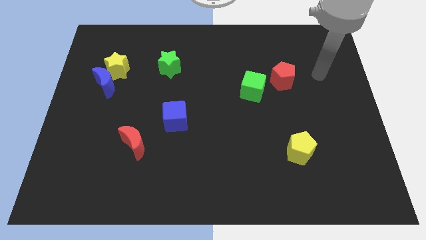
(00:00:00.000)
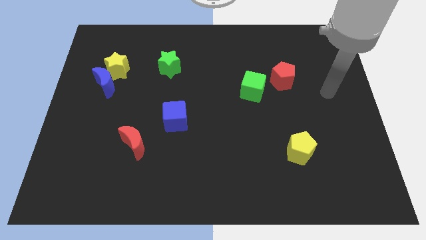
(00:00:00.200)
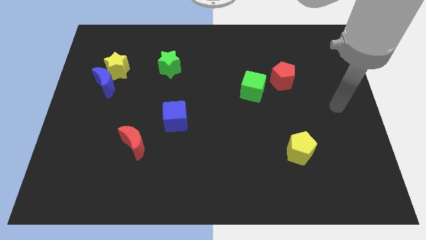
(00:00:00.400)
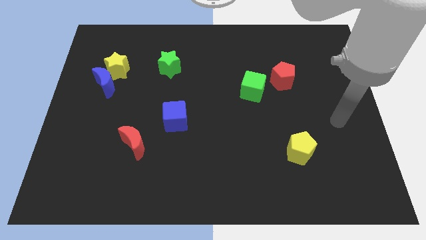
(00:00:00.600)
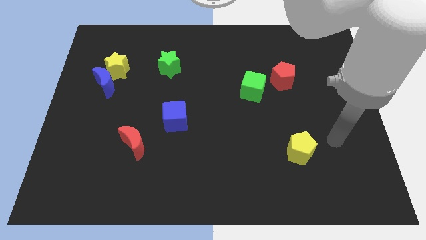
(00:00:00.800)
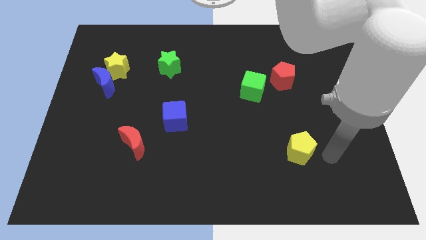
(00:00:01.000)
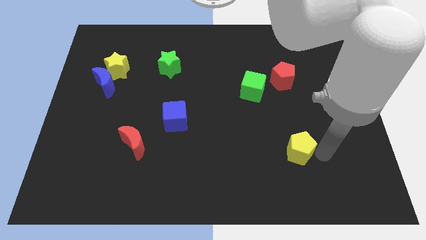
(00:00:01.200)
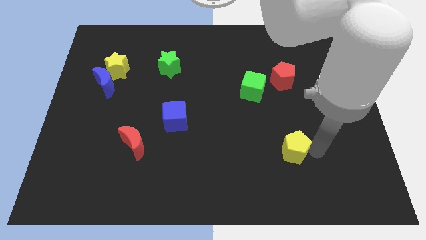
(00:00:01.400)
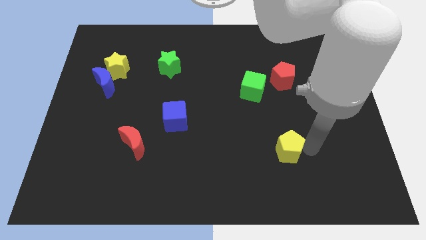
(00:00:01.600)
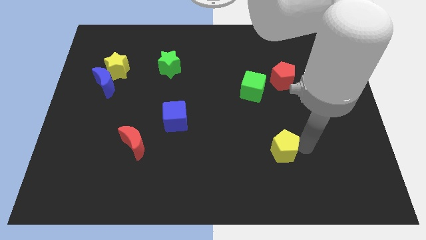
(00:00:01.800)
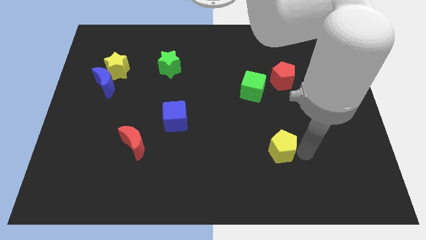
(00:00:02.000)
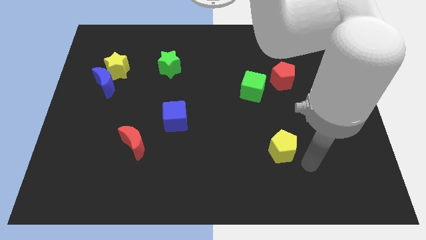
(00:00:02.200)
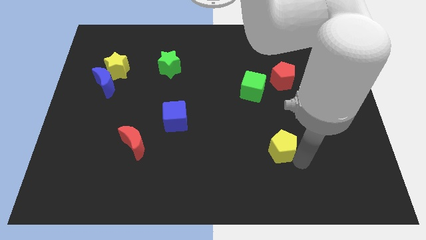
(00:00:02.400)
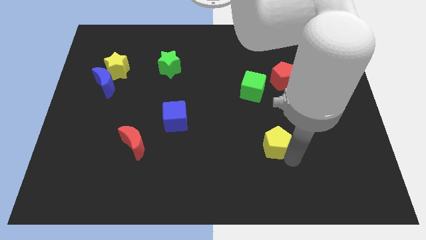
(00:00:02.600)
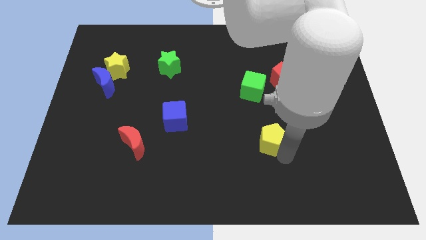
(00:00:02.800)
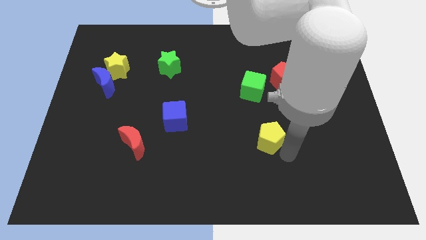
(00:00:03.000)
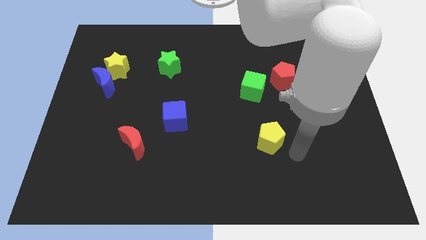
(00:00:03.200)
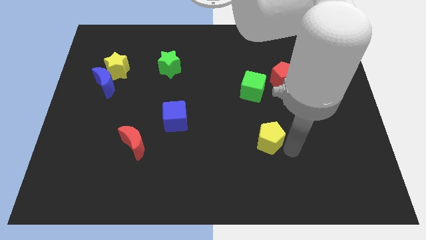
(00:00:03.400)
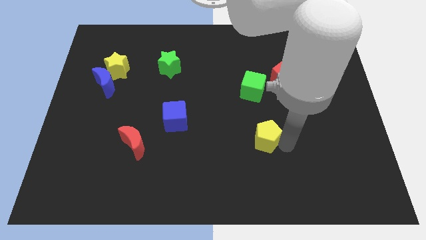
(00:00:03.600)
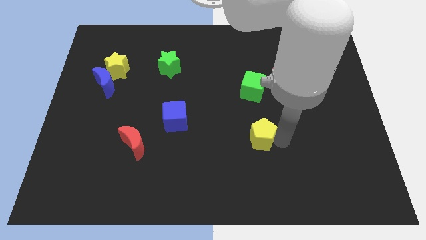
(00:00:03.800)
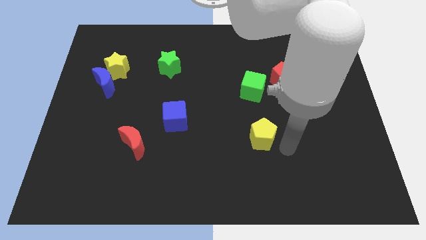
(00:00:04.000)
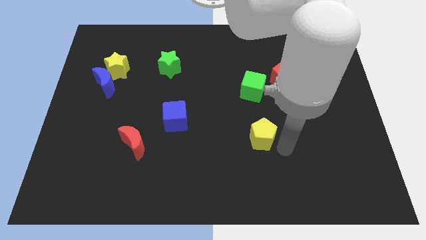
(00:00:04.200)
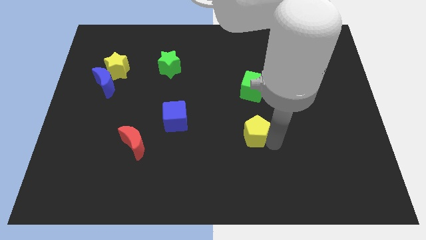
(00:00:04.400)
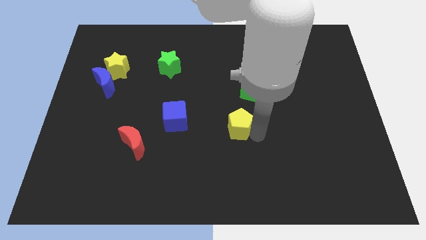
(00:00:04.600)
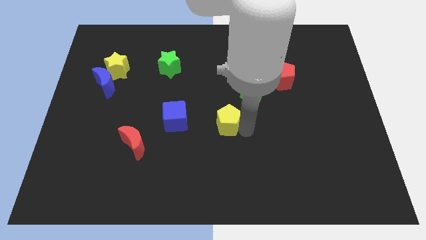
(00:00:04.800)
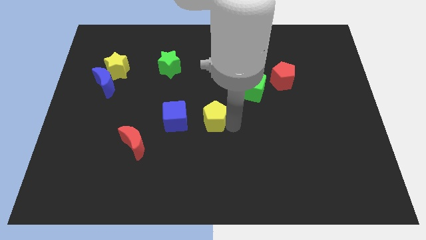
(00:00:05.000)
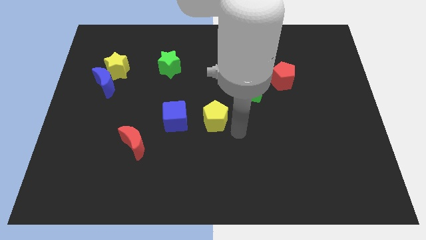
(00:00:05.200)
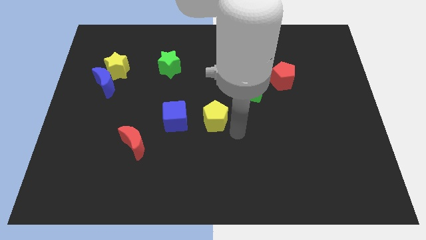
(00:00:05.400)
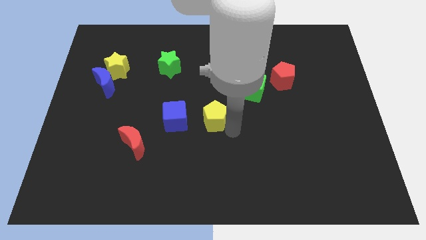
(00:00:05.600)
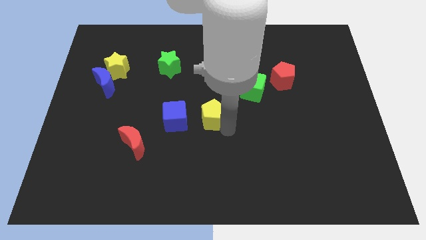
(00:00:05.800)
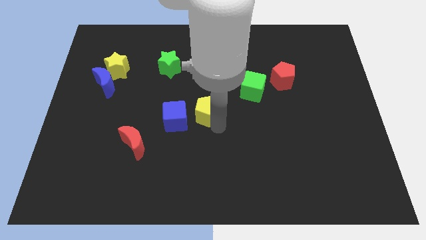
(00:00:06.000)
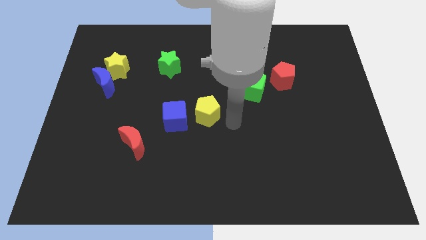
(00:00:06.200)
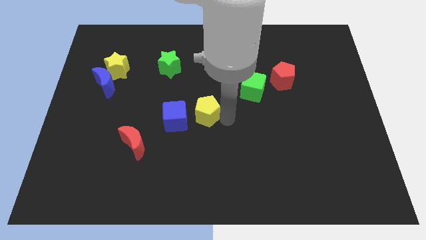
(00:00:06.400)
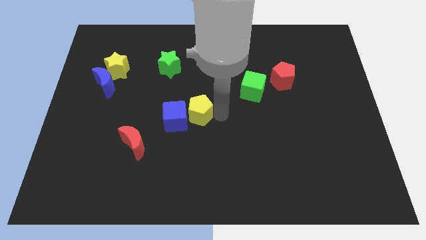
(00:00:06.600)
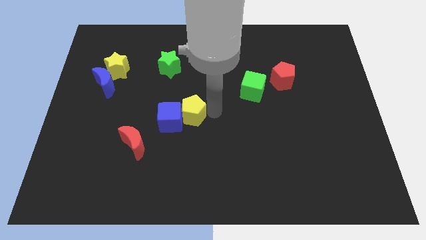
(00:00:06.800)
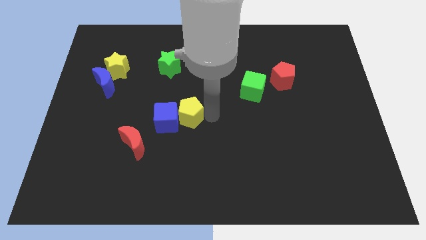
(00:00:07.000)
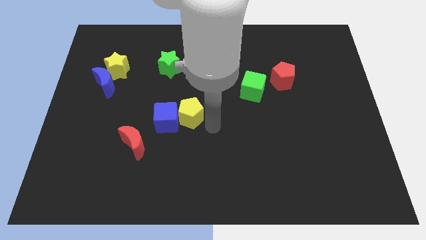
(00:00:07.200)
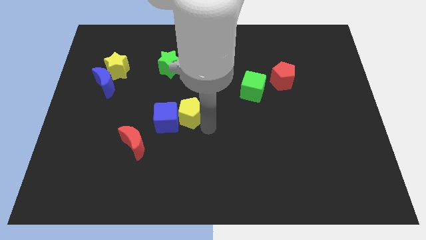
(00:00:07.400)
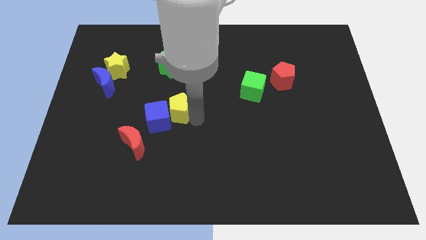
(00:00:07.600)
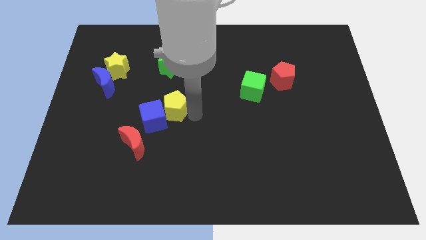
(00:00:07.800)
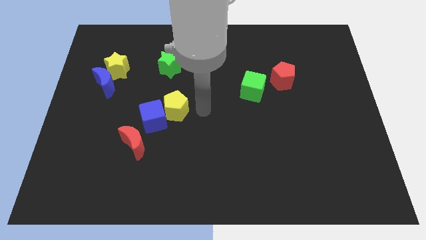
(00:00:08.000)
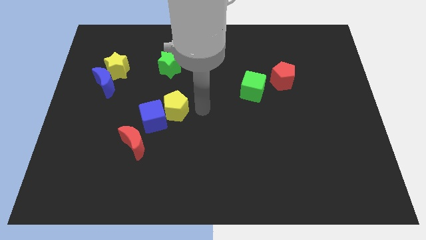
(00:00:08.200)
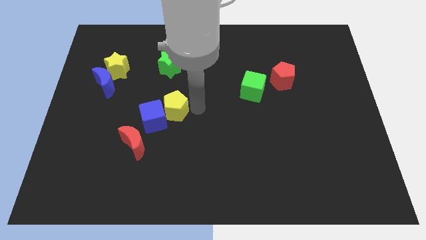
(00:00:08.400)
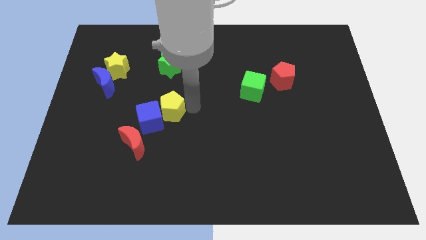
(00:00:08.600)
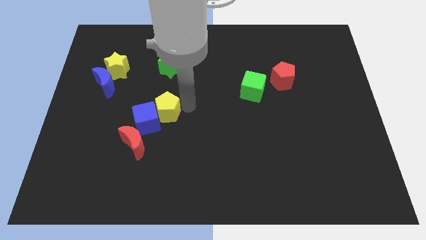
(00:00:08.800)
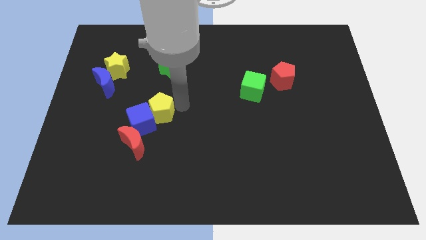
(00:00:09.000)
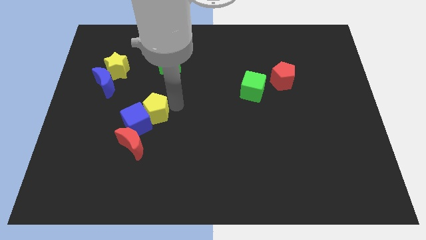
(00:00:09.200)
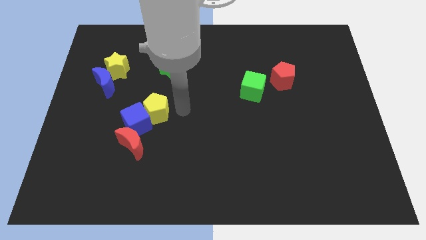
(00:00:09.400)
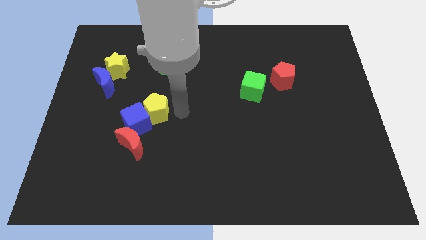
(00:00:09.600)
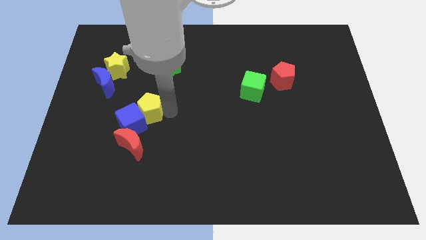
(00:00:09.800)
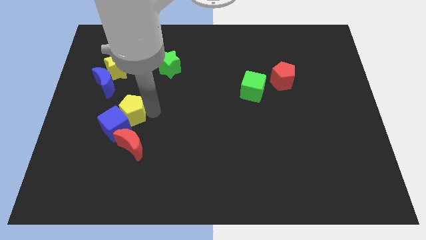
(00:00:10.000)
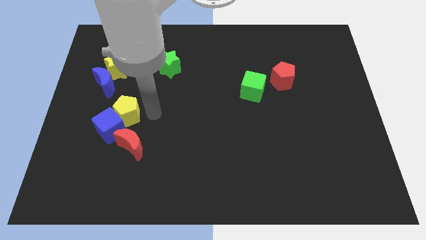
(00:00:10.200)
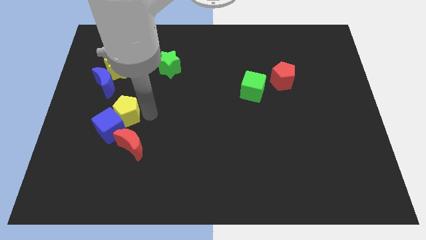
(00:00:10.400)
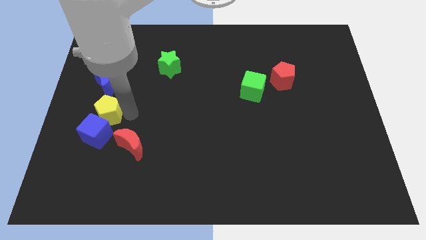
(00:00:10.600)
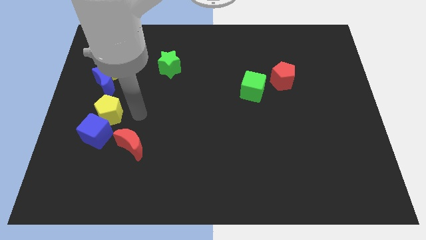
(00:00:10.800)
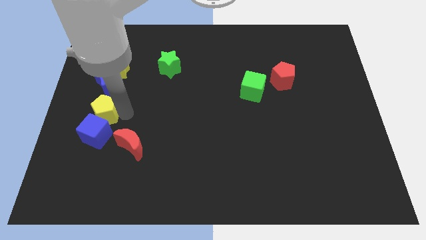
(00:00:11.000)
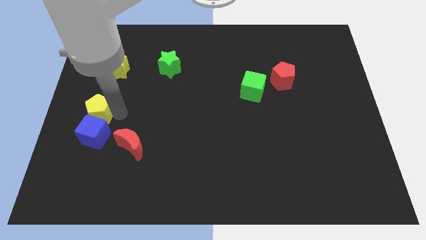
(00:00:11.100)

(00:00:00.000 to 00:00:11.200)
move the yellow pentagon to the center left
